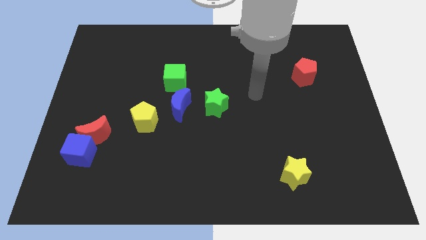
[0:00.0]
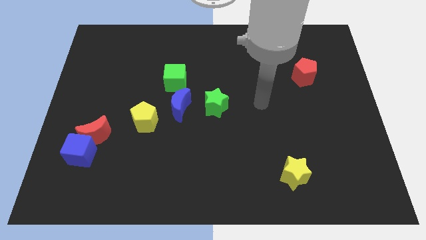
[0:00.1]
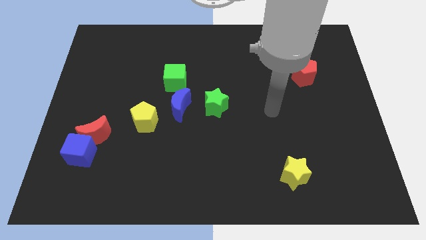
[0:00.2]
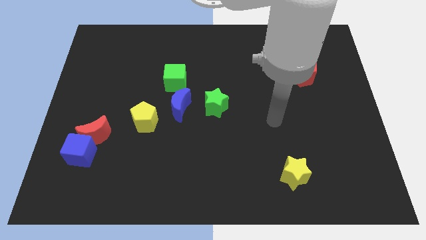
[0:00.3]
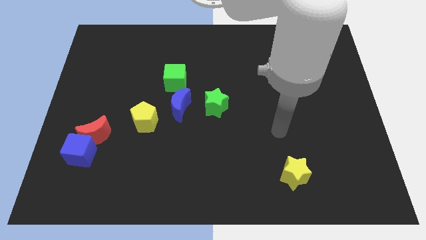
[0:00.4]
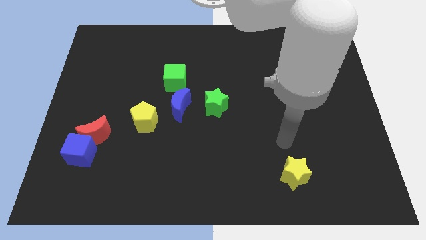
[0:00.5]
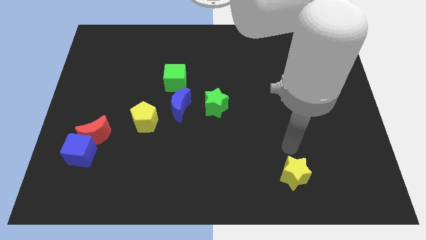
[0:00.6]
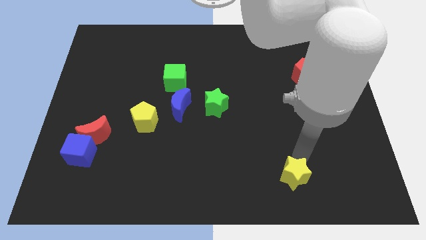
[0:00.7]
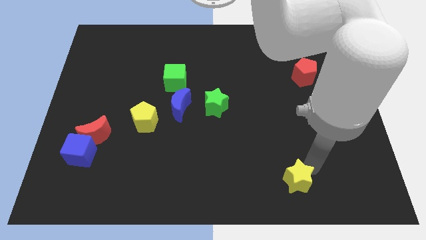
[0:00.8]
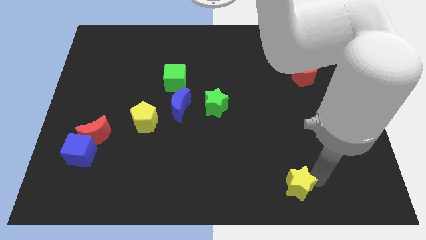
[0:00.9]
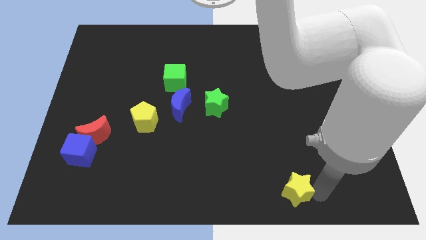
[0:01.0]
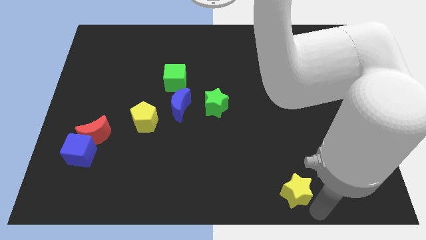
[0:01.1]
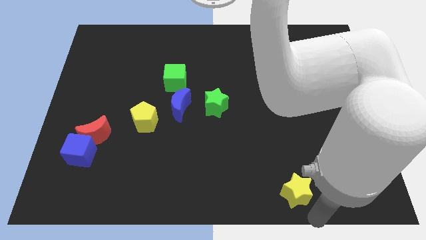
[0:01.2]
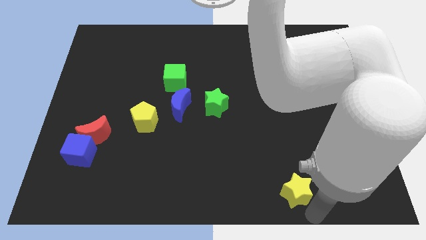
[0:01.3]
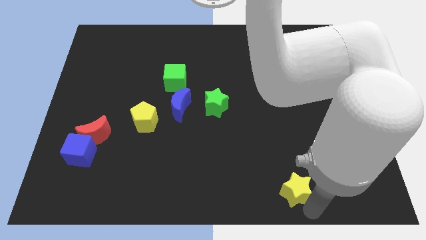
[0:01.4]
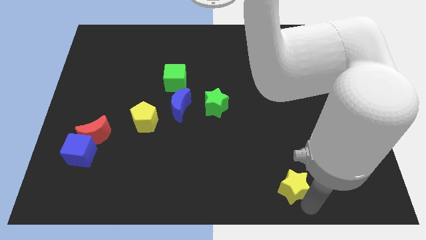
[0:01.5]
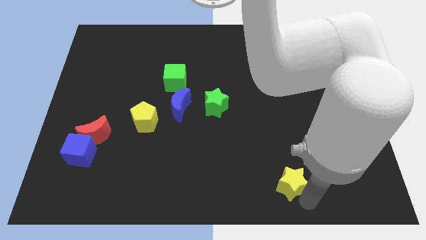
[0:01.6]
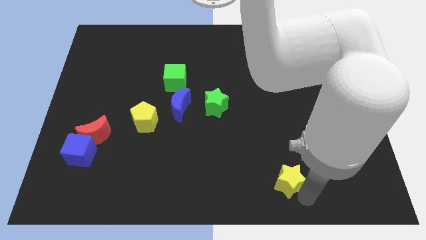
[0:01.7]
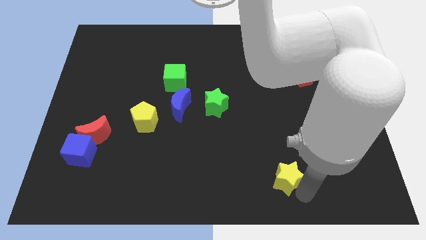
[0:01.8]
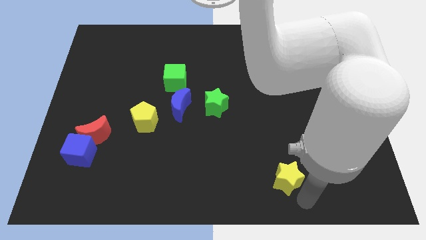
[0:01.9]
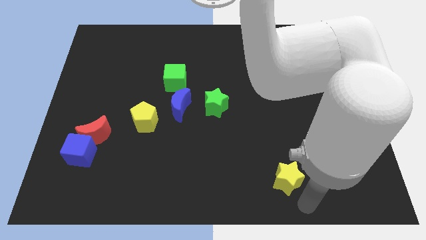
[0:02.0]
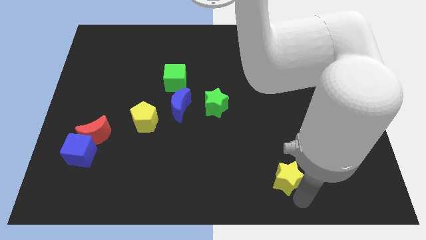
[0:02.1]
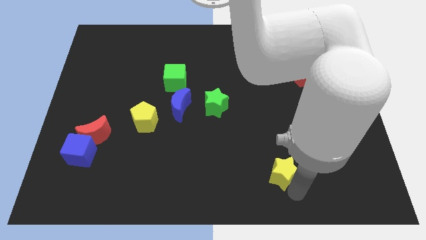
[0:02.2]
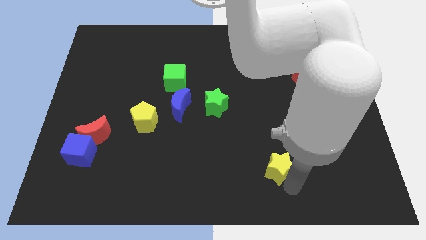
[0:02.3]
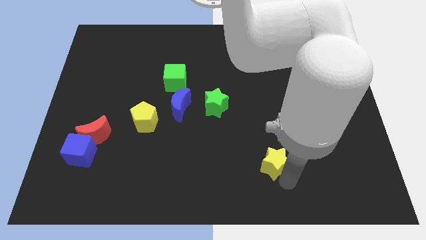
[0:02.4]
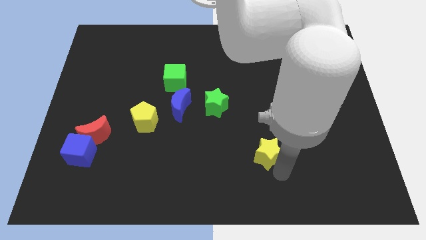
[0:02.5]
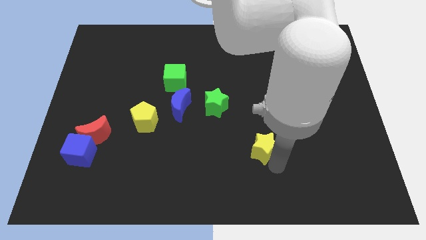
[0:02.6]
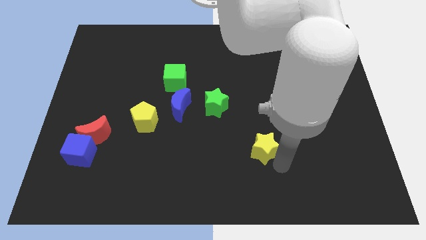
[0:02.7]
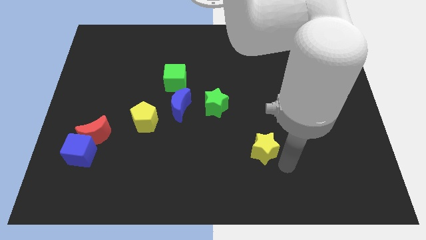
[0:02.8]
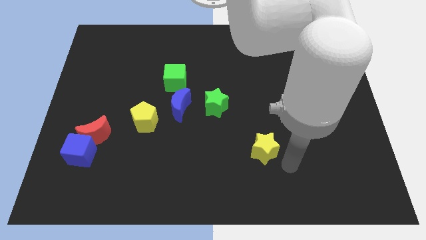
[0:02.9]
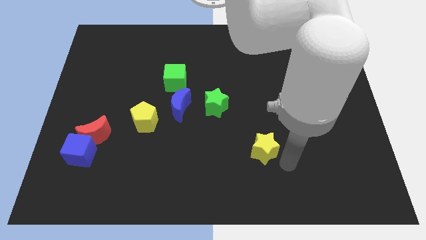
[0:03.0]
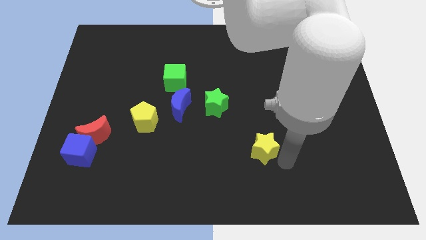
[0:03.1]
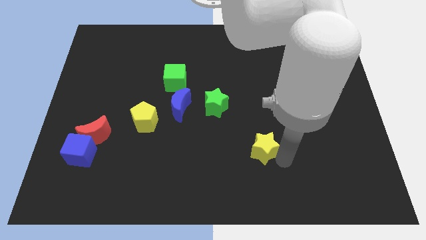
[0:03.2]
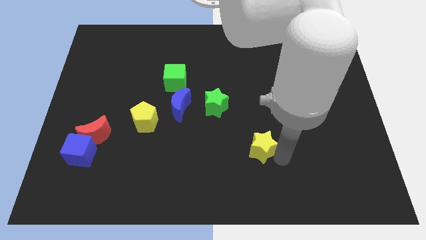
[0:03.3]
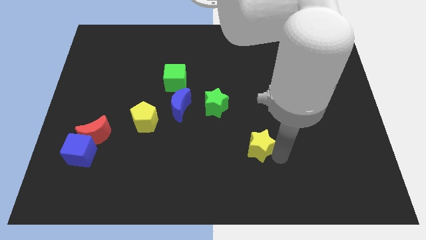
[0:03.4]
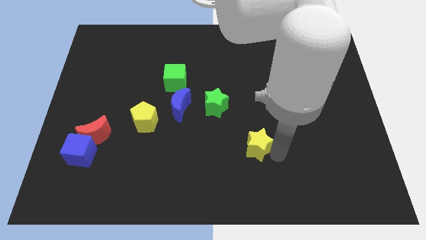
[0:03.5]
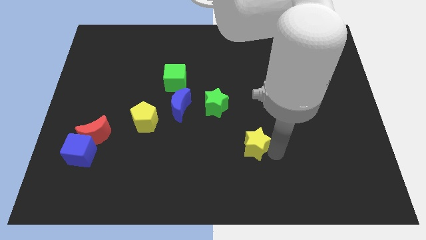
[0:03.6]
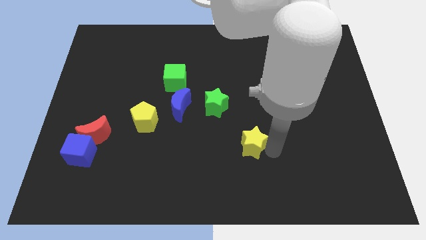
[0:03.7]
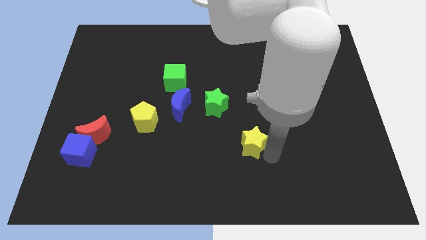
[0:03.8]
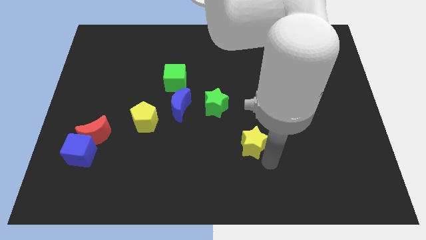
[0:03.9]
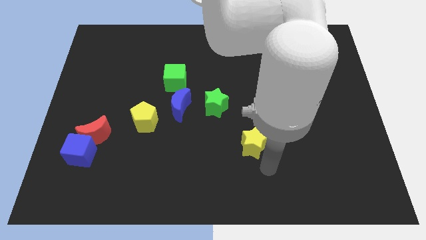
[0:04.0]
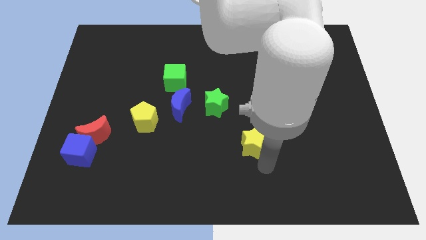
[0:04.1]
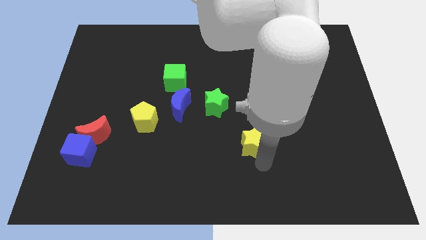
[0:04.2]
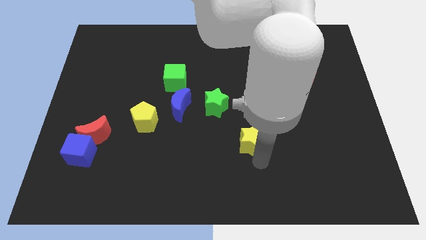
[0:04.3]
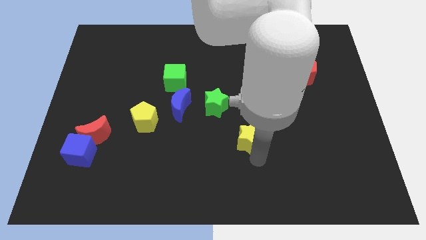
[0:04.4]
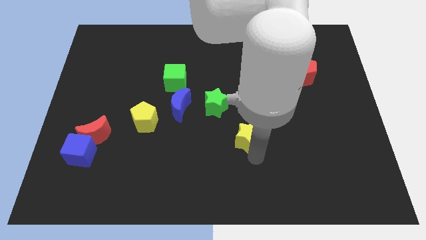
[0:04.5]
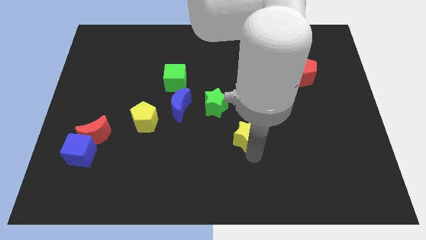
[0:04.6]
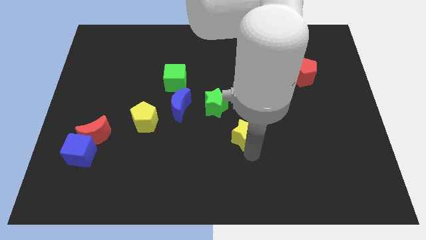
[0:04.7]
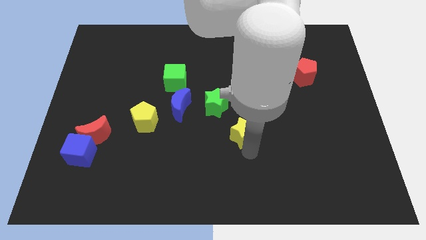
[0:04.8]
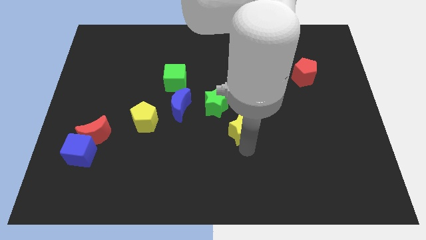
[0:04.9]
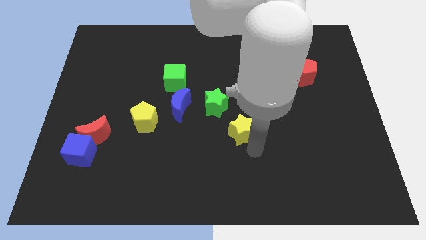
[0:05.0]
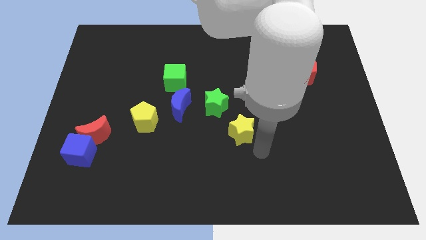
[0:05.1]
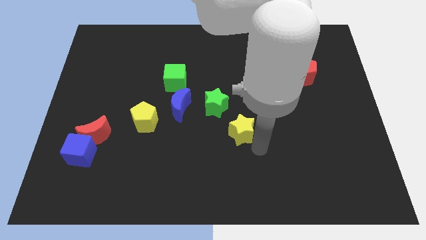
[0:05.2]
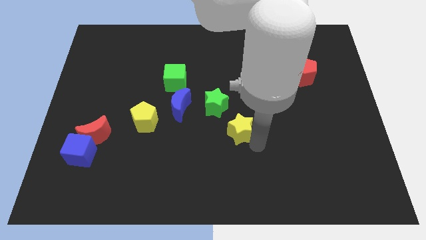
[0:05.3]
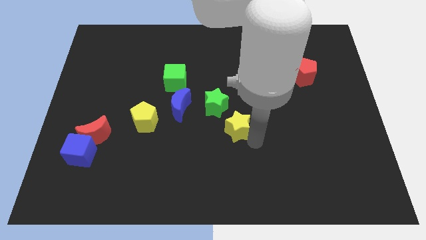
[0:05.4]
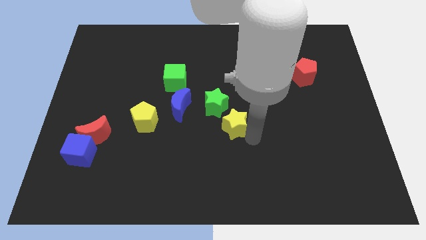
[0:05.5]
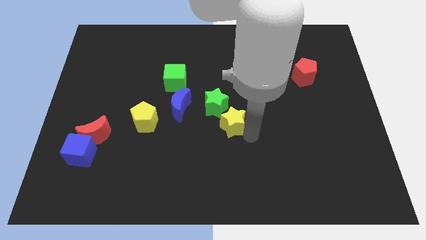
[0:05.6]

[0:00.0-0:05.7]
put the yellow star close to the green star

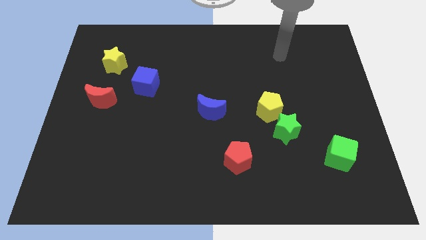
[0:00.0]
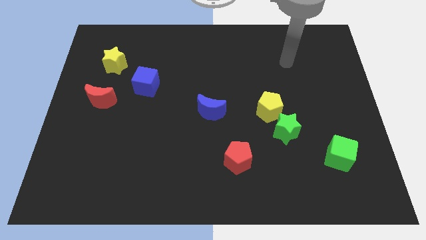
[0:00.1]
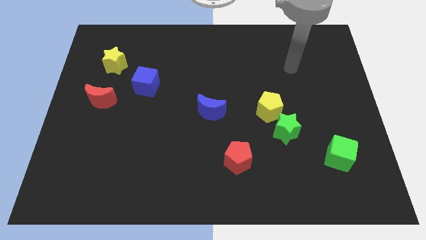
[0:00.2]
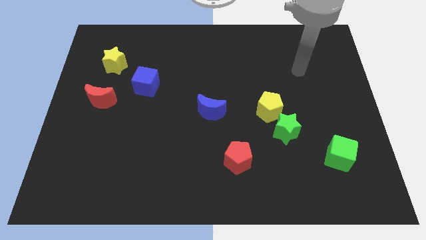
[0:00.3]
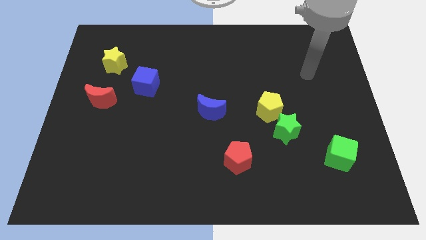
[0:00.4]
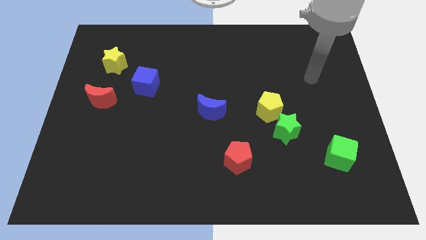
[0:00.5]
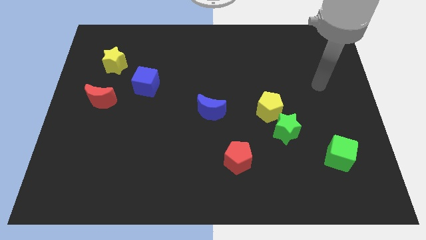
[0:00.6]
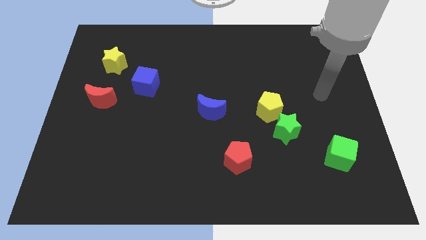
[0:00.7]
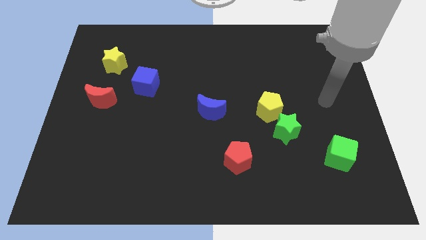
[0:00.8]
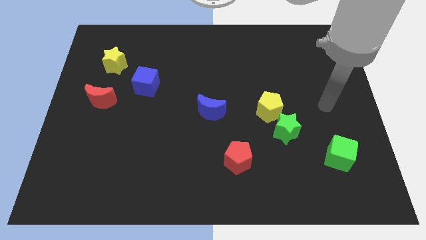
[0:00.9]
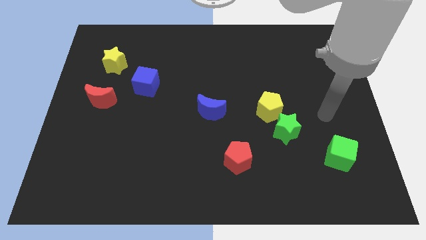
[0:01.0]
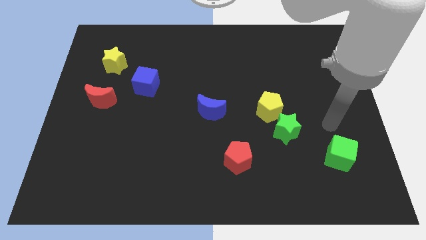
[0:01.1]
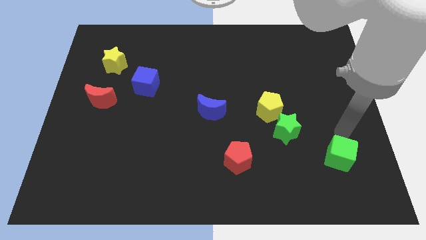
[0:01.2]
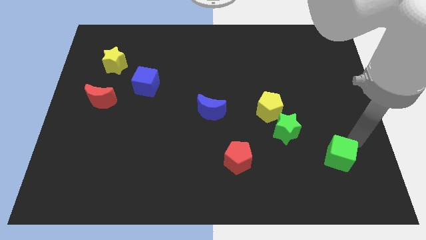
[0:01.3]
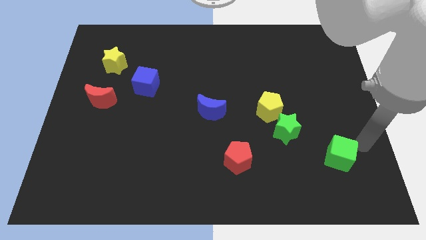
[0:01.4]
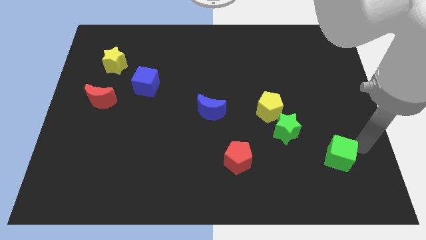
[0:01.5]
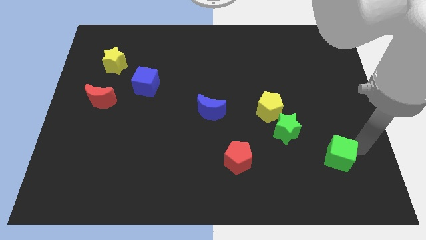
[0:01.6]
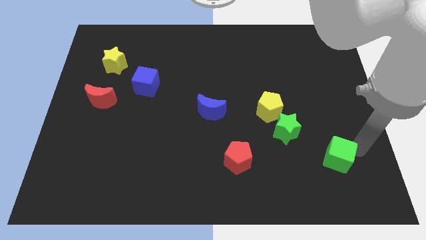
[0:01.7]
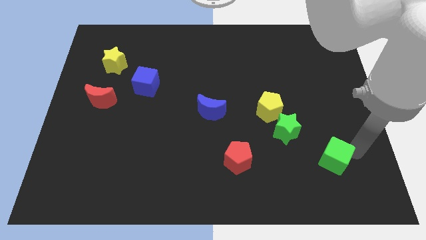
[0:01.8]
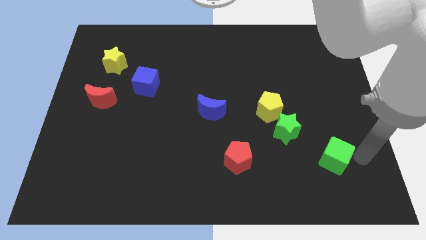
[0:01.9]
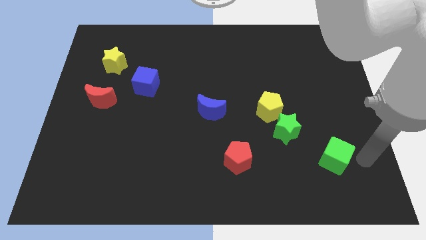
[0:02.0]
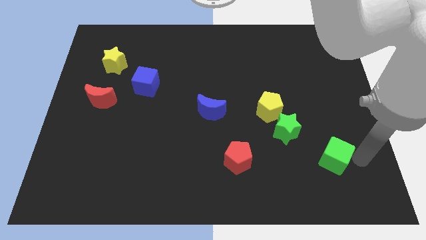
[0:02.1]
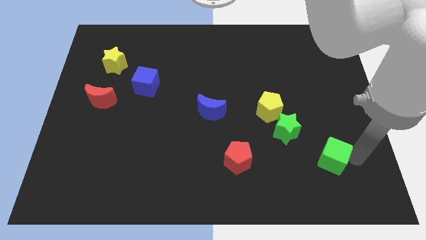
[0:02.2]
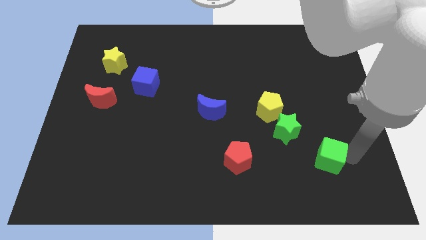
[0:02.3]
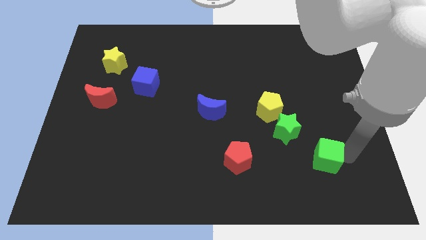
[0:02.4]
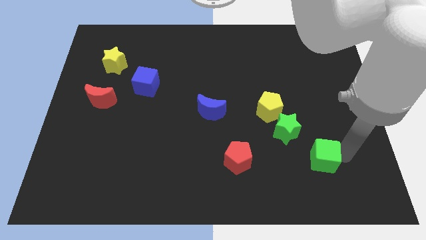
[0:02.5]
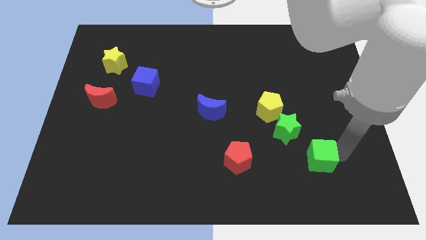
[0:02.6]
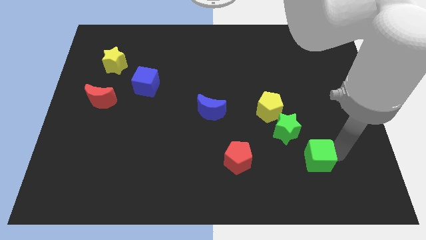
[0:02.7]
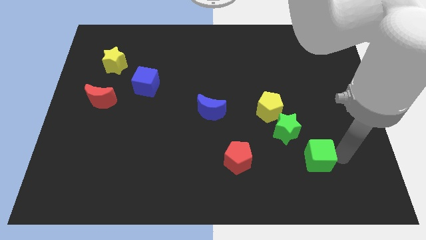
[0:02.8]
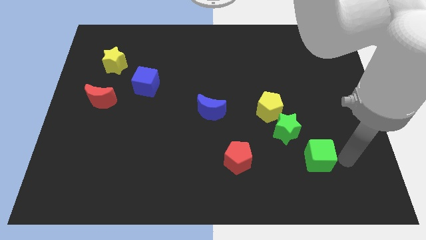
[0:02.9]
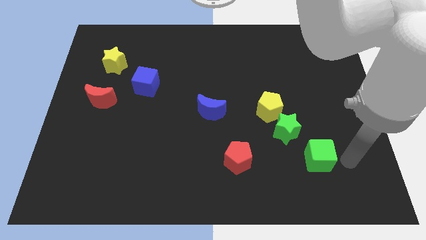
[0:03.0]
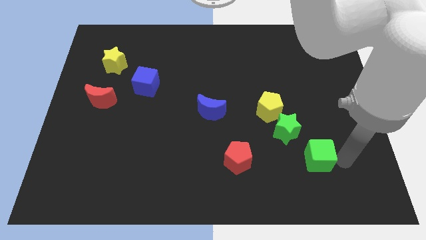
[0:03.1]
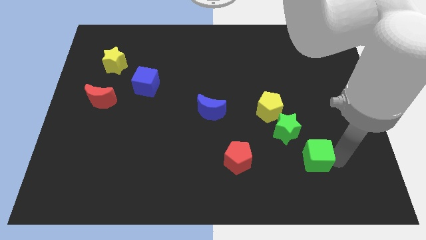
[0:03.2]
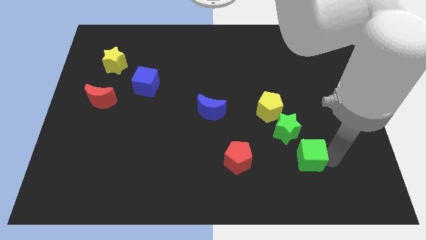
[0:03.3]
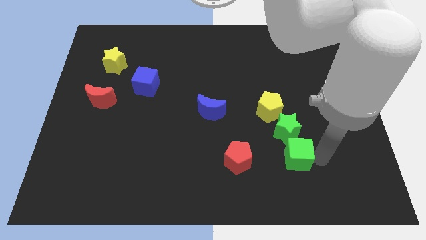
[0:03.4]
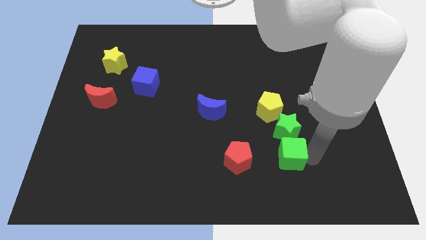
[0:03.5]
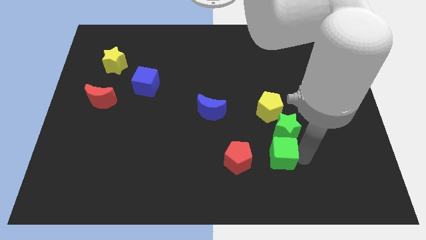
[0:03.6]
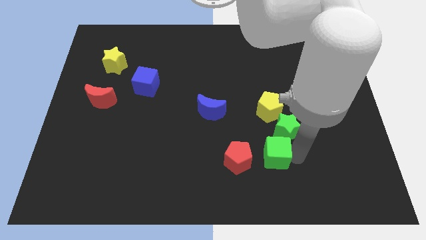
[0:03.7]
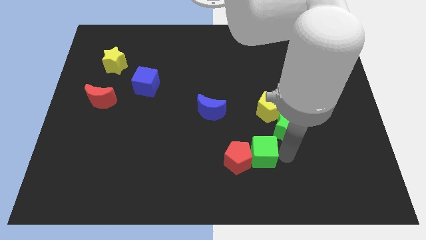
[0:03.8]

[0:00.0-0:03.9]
put the green cube close to the red pentagon
